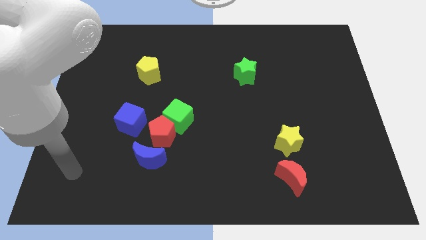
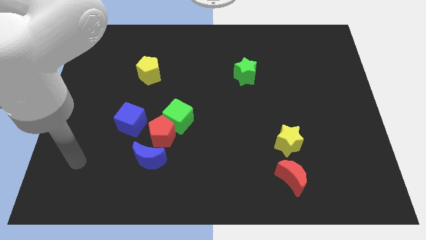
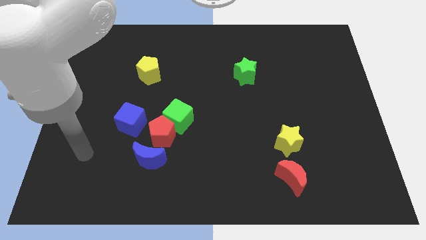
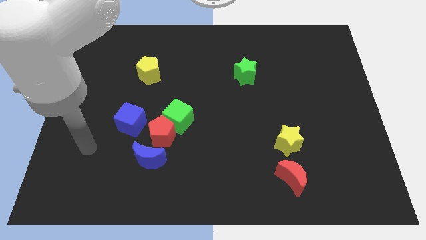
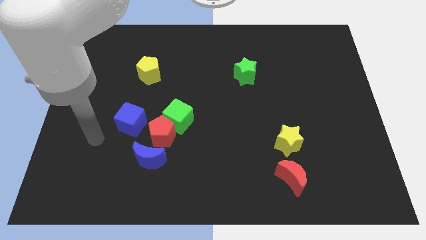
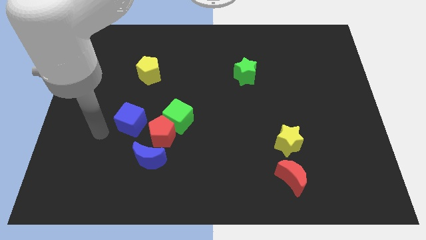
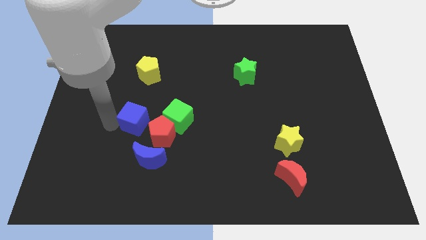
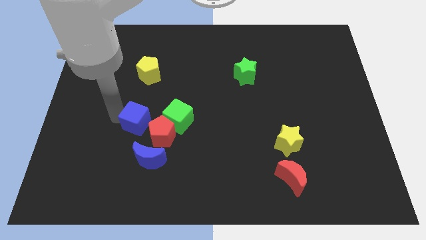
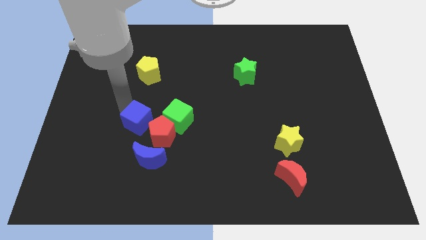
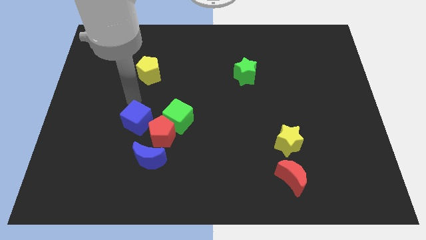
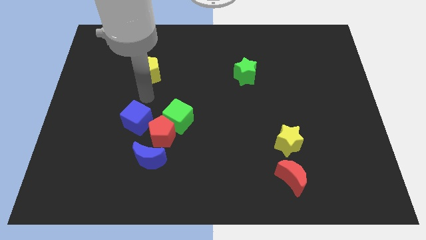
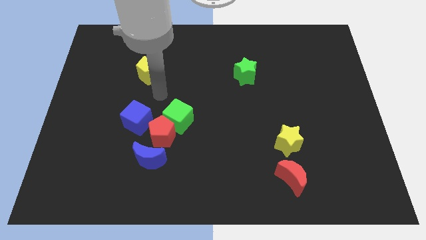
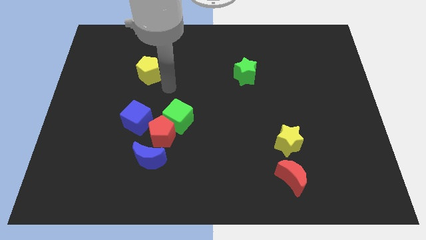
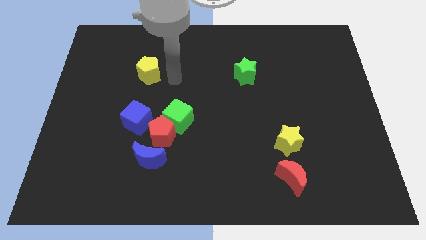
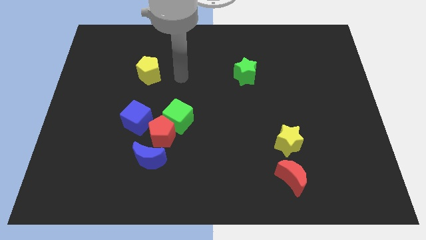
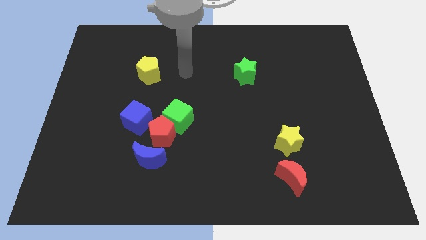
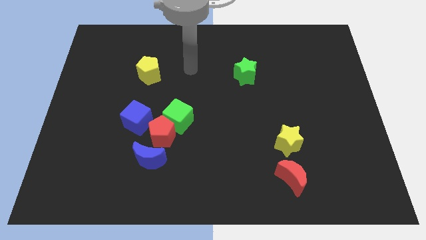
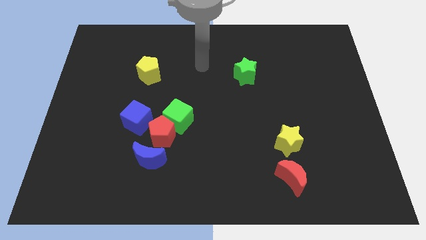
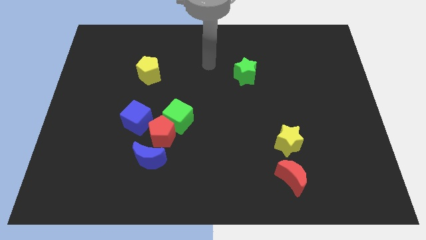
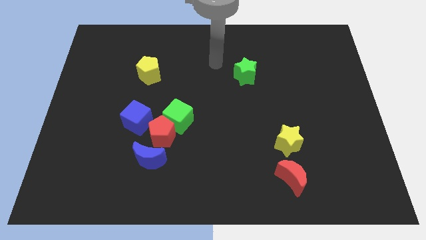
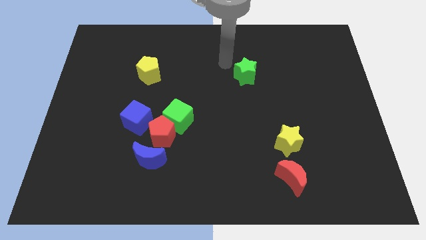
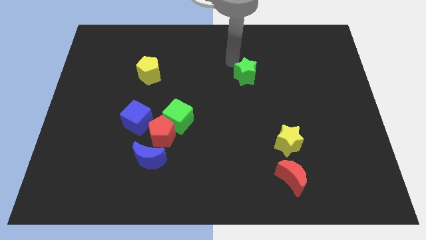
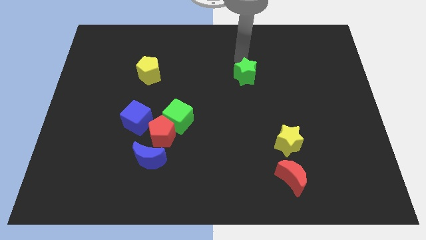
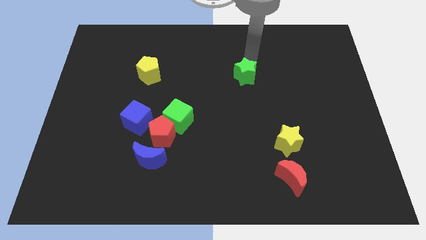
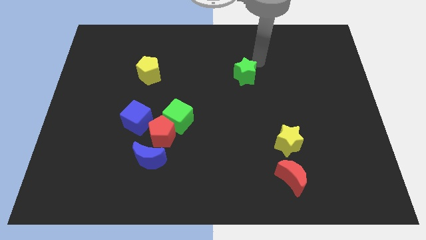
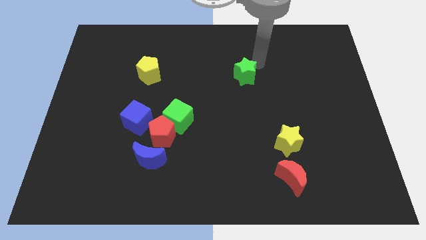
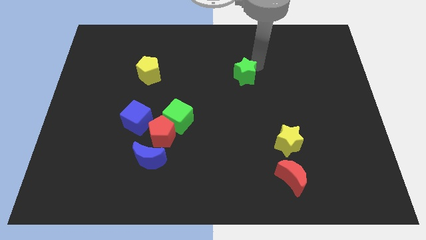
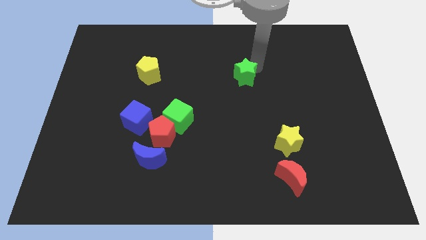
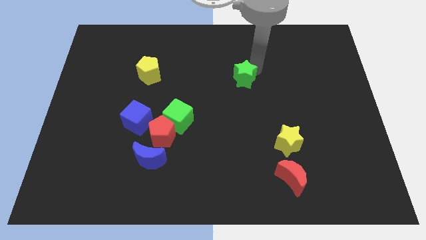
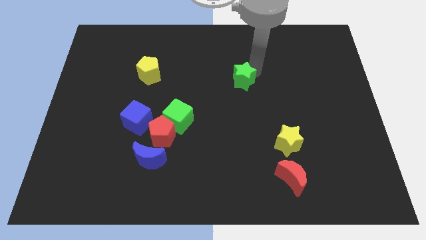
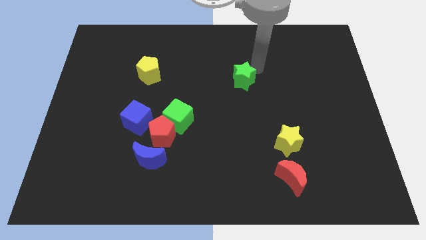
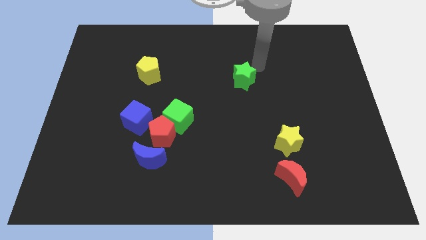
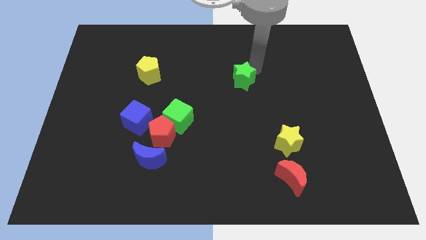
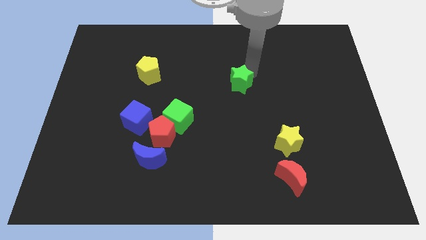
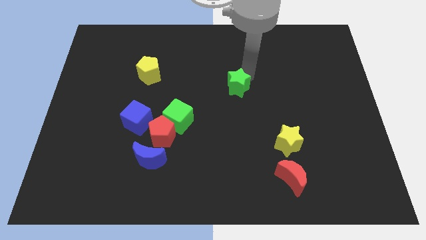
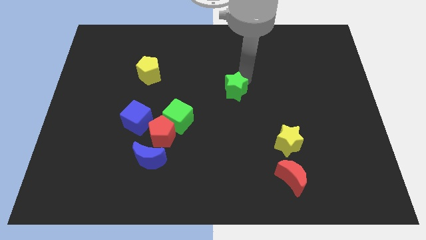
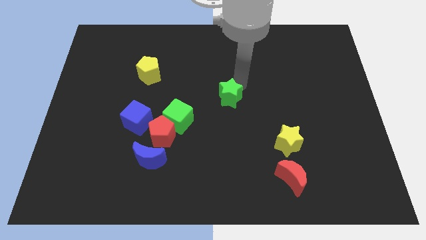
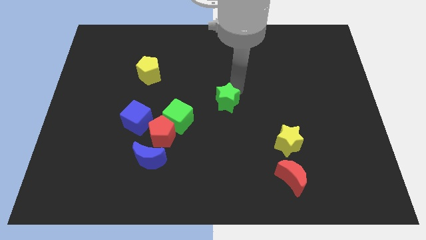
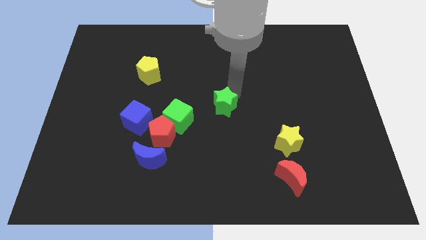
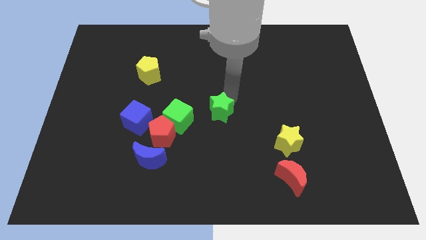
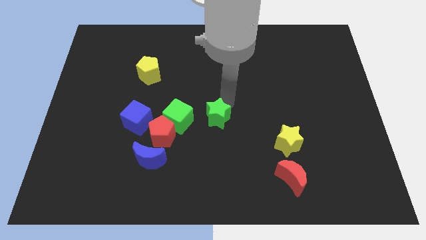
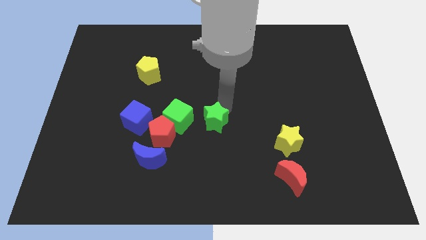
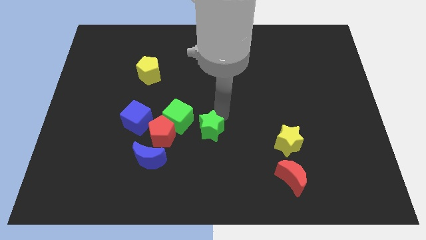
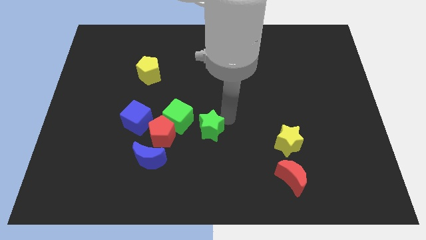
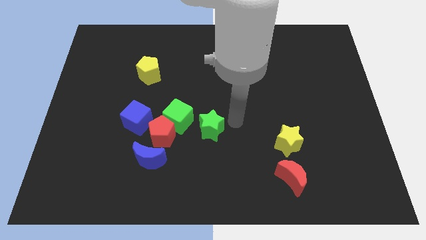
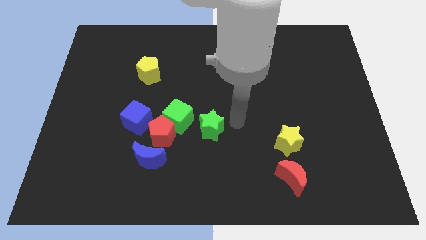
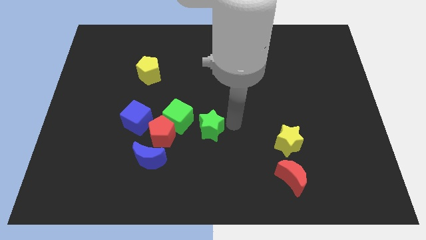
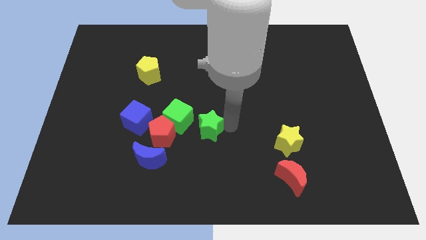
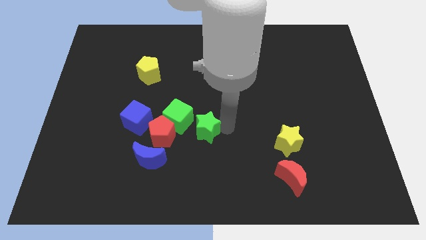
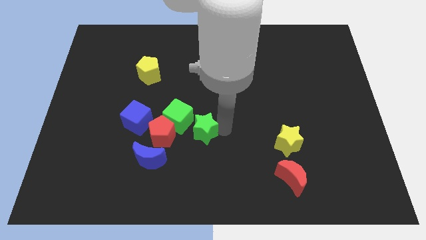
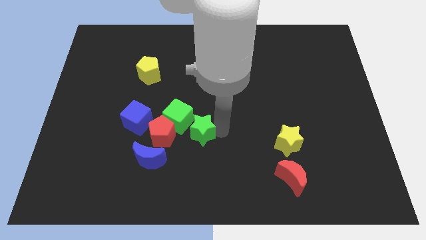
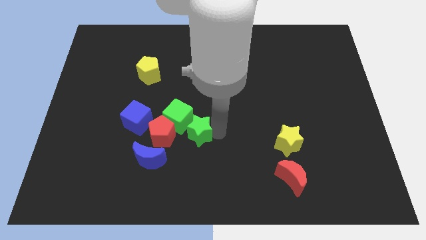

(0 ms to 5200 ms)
slide the green star diagonally up and to the right of the blue moon

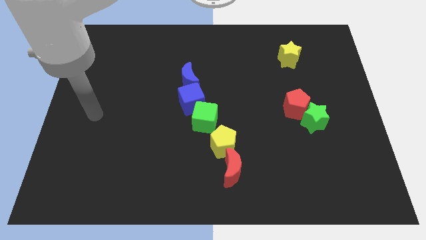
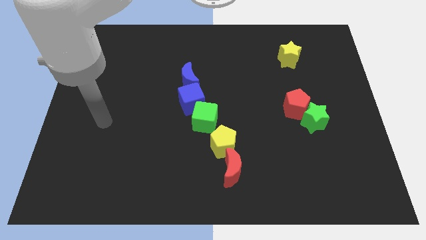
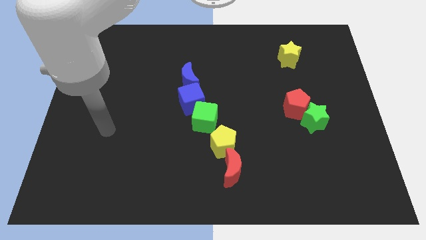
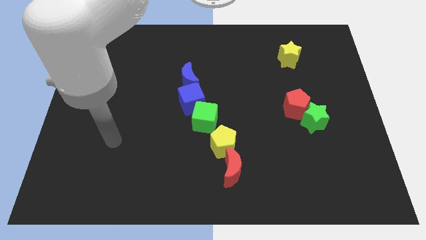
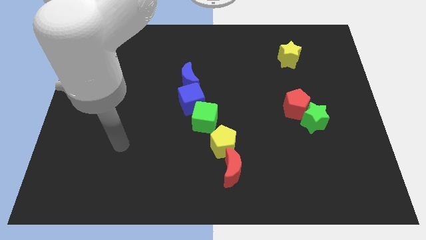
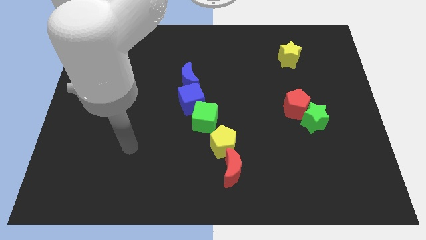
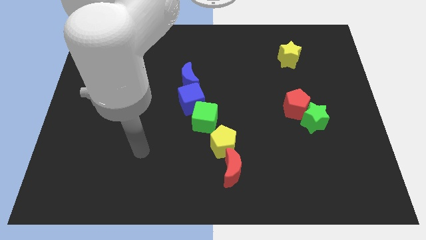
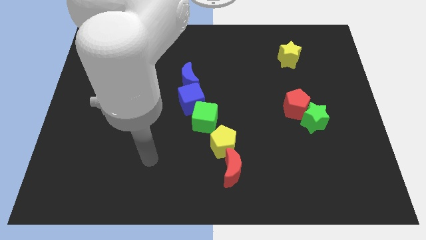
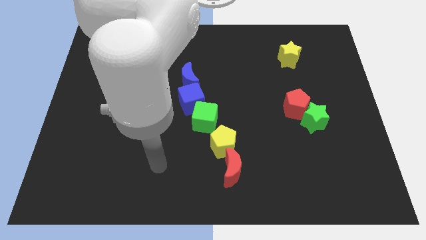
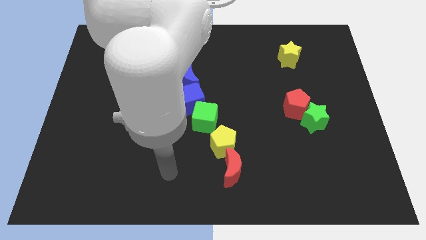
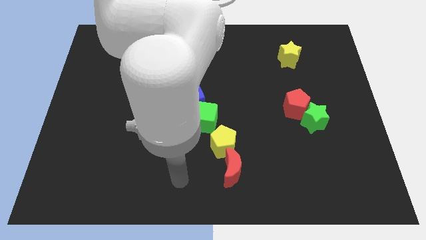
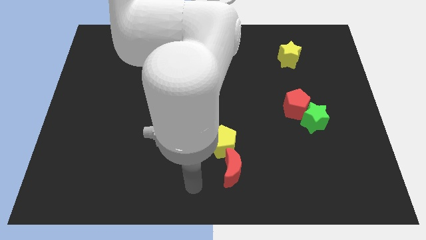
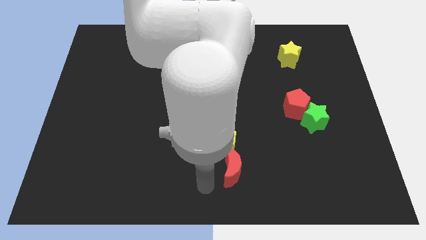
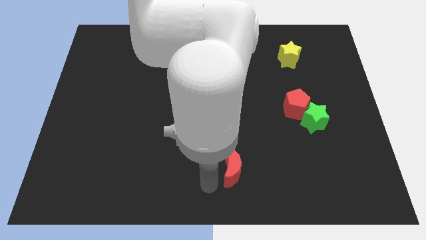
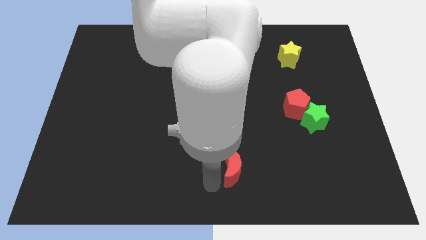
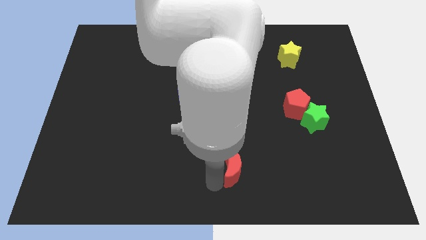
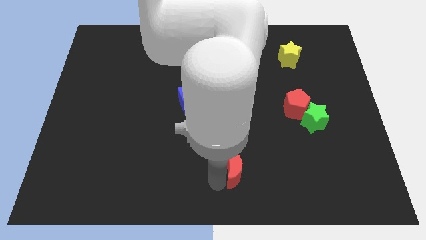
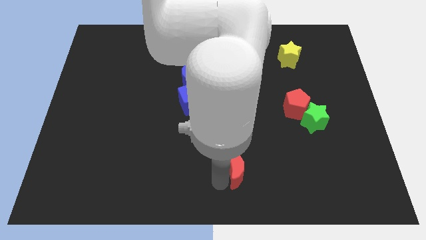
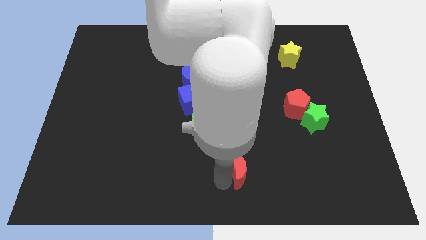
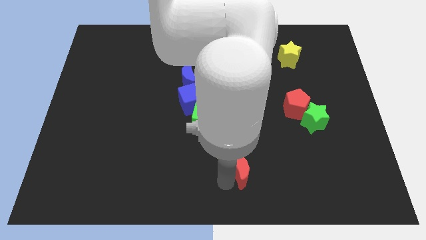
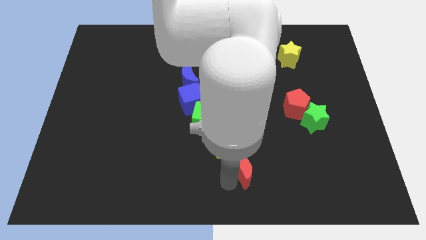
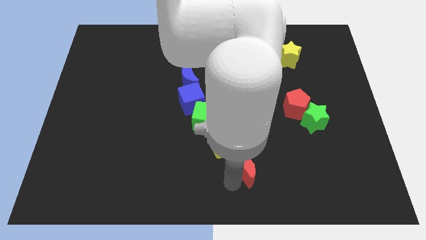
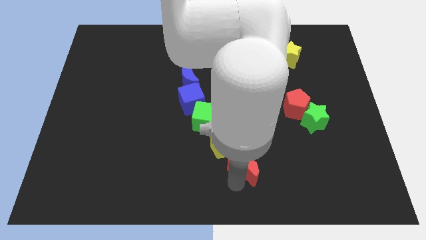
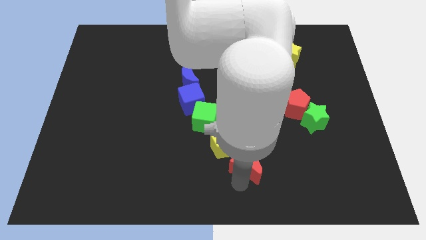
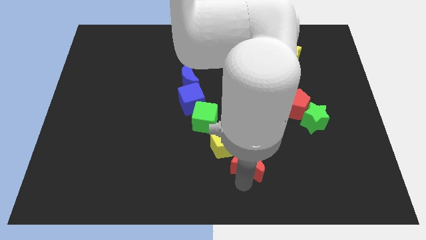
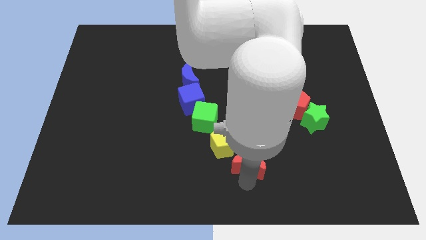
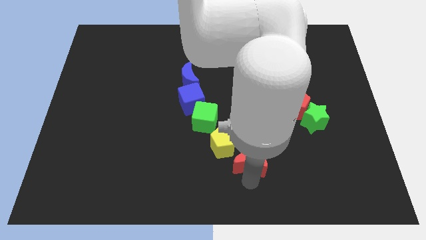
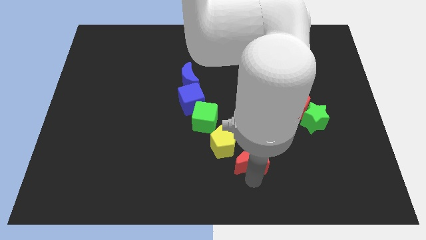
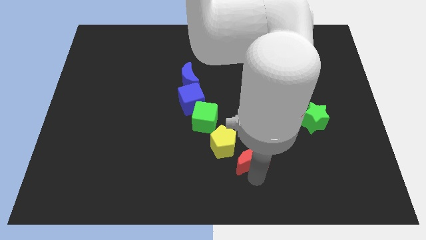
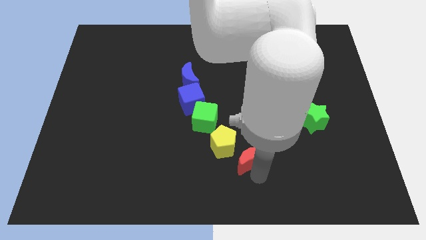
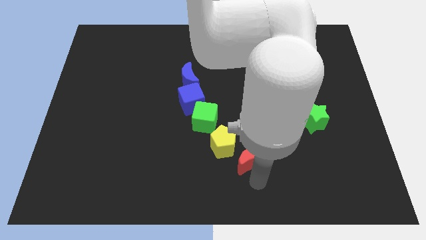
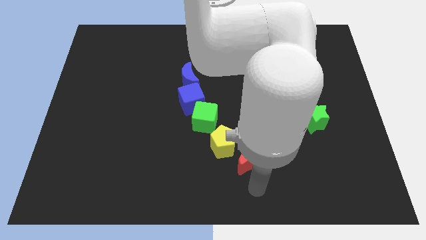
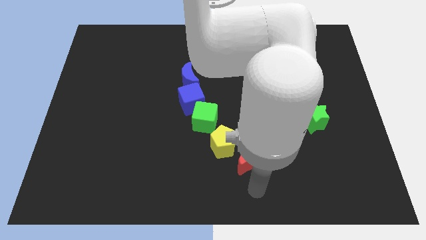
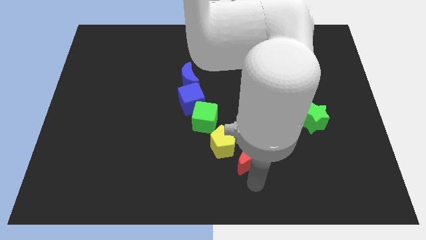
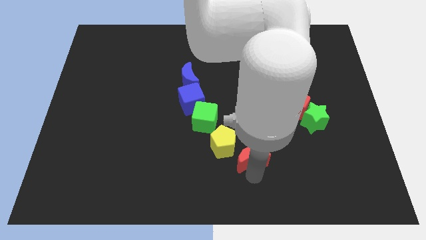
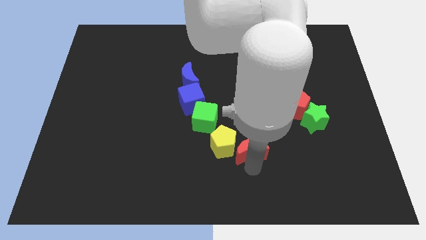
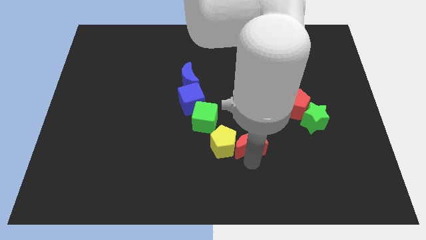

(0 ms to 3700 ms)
move the red moon diagonally up and to the right of the yellow pentagon
